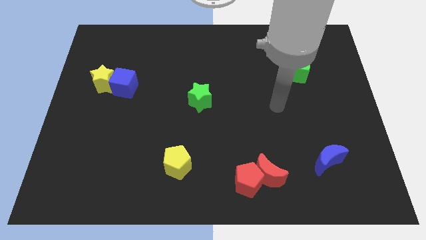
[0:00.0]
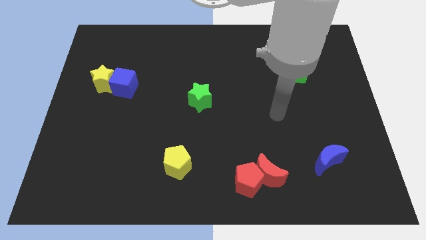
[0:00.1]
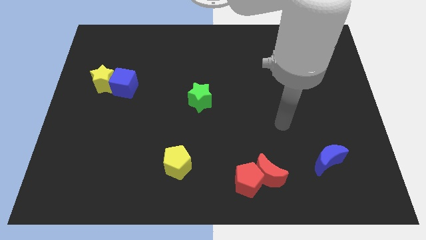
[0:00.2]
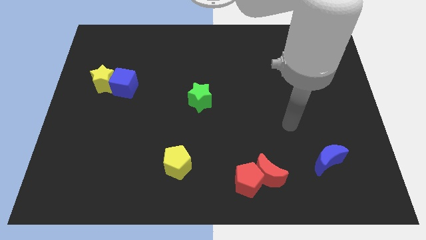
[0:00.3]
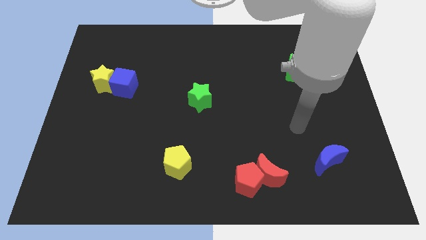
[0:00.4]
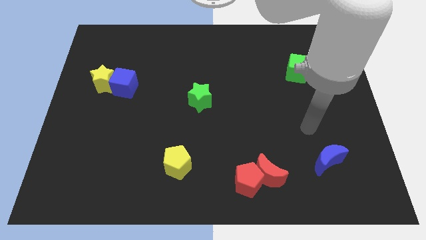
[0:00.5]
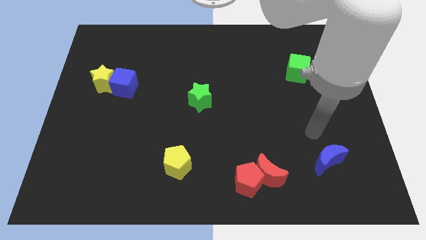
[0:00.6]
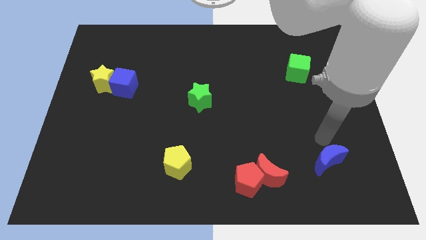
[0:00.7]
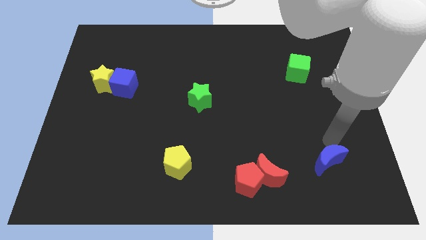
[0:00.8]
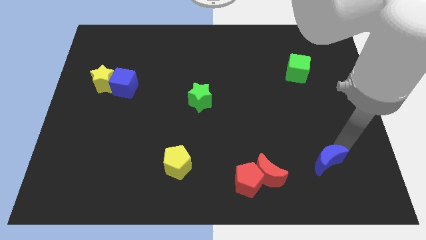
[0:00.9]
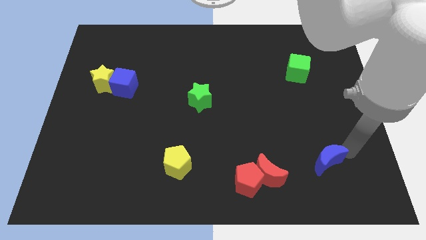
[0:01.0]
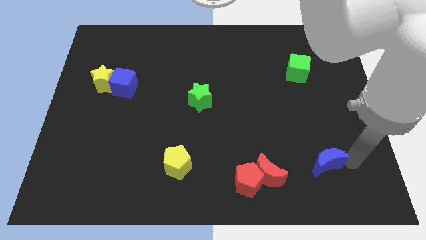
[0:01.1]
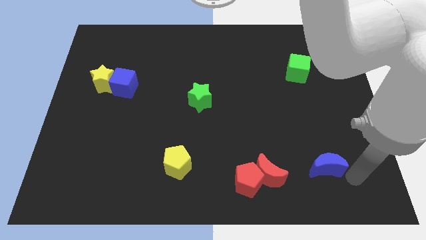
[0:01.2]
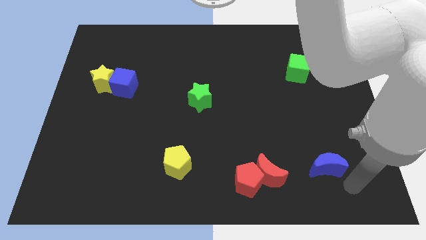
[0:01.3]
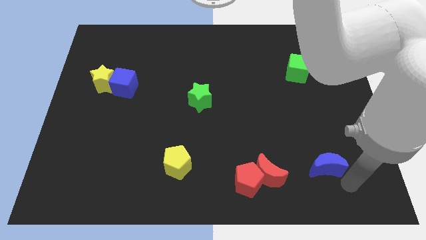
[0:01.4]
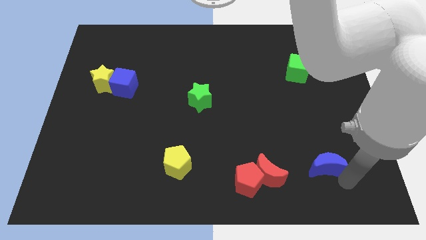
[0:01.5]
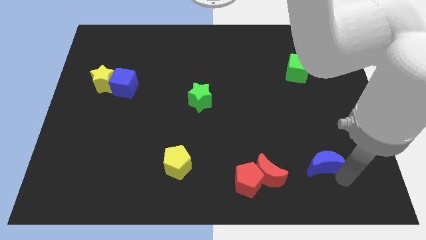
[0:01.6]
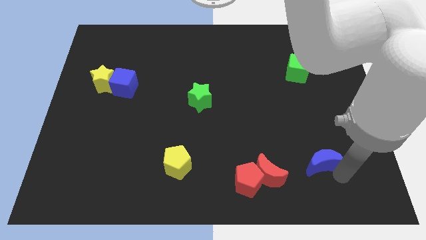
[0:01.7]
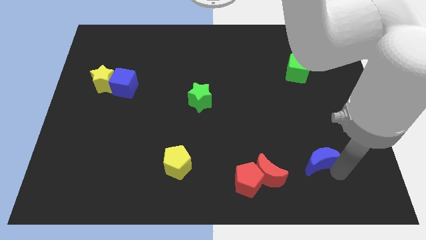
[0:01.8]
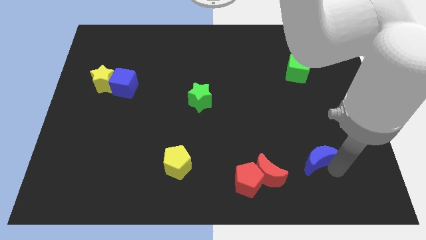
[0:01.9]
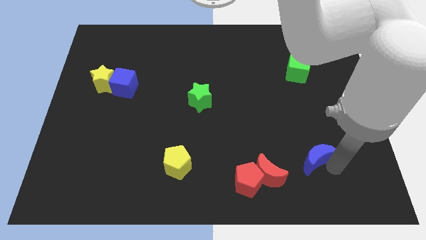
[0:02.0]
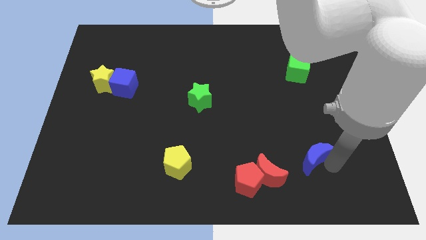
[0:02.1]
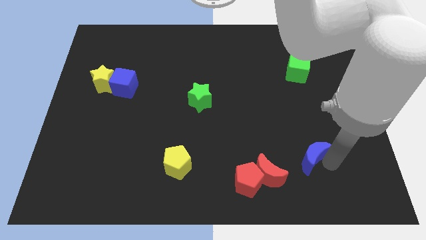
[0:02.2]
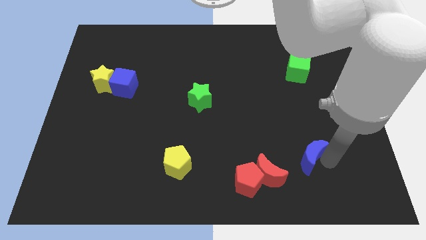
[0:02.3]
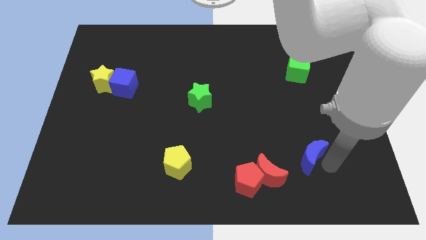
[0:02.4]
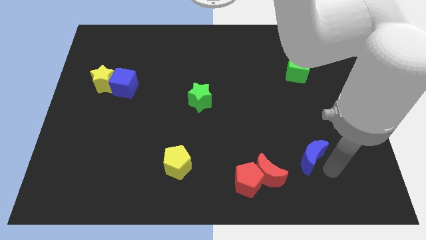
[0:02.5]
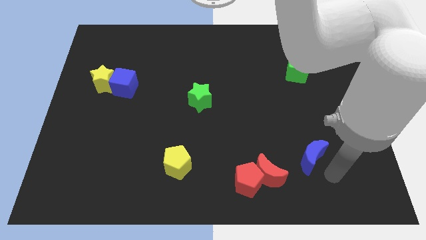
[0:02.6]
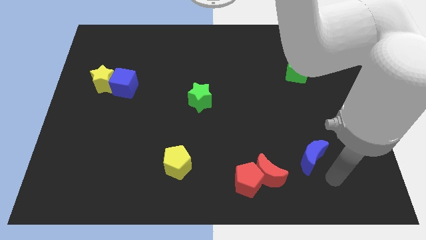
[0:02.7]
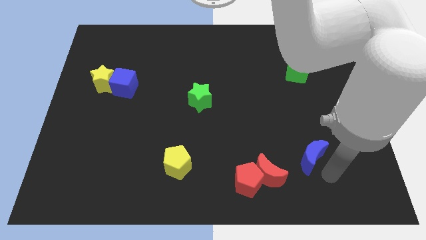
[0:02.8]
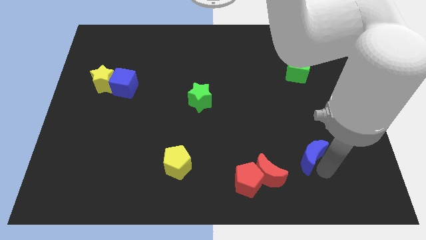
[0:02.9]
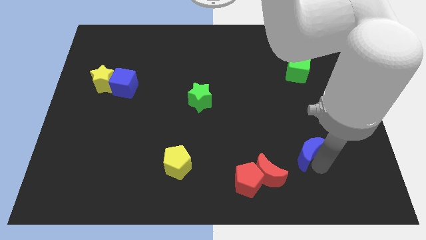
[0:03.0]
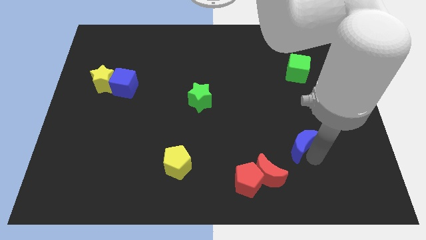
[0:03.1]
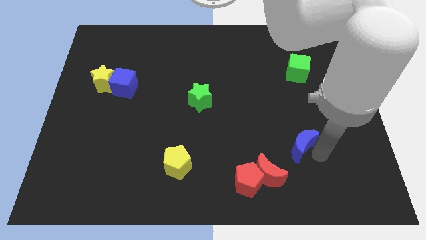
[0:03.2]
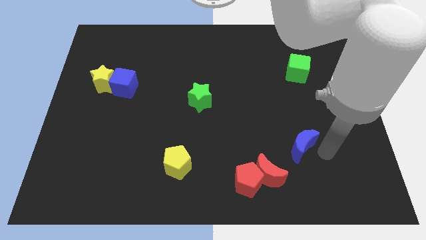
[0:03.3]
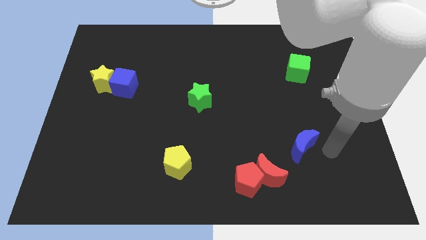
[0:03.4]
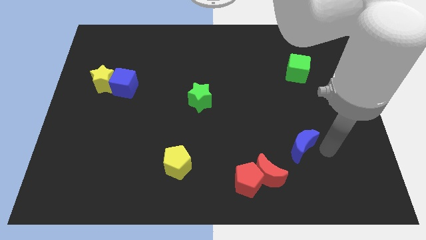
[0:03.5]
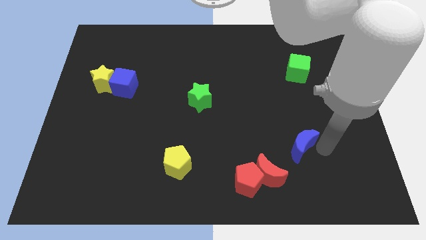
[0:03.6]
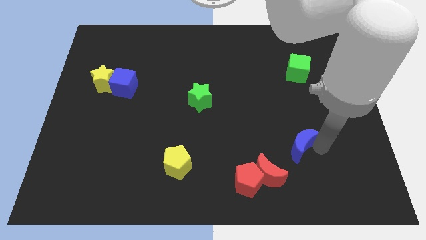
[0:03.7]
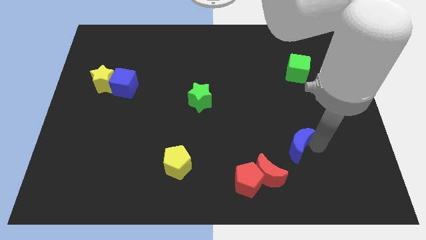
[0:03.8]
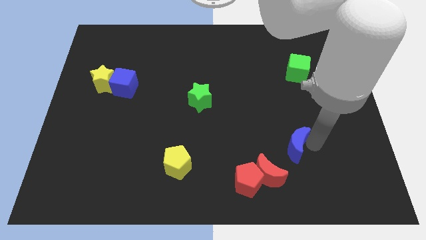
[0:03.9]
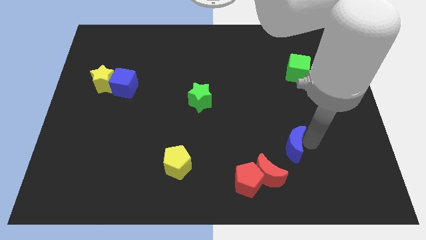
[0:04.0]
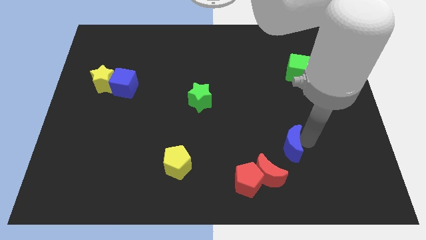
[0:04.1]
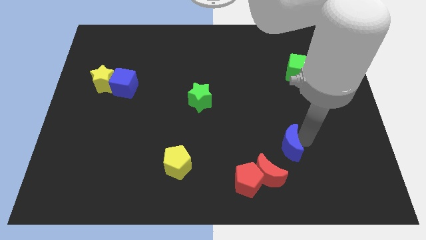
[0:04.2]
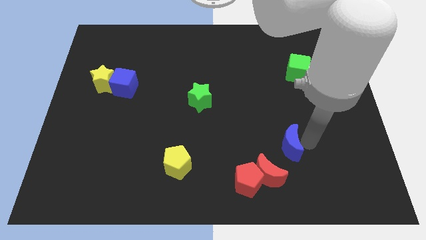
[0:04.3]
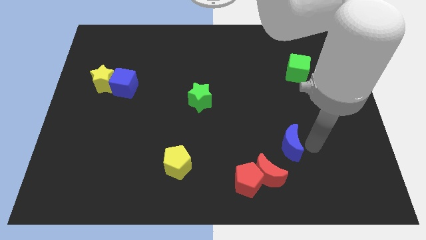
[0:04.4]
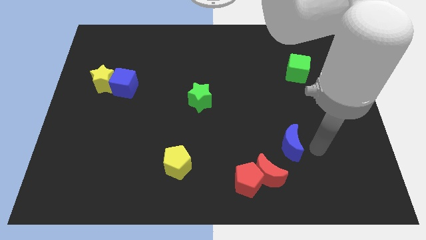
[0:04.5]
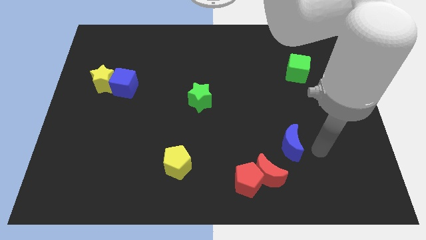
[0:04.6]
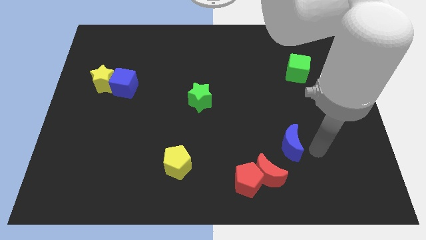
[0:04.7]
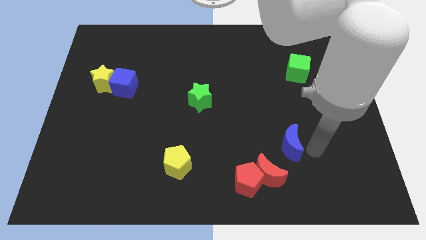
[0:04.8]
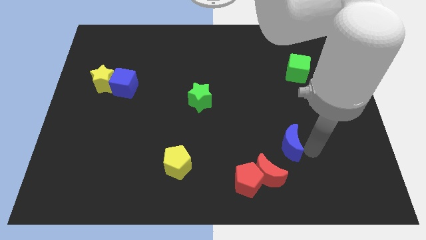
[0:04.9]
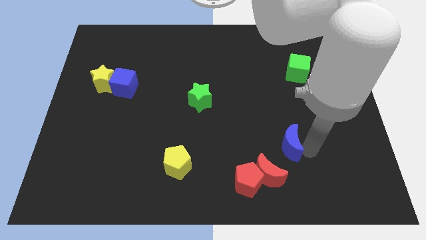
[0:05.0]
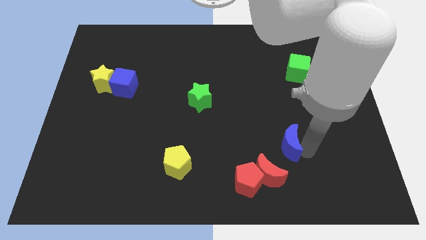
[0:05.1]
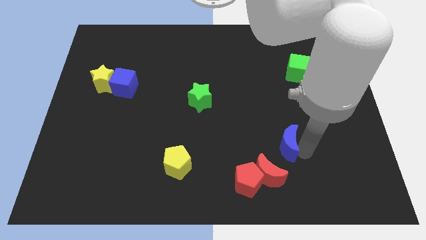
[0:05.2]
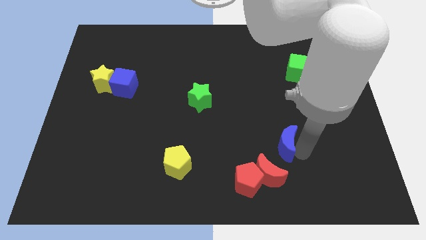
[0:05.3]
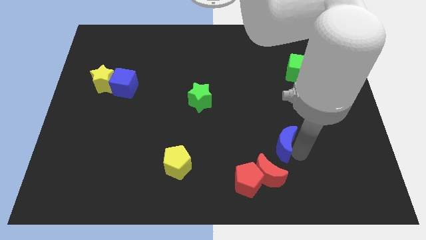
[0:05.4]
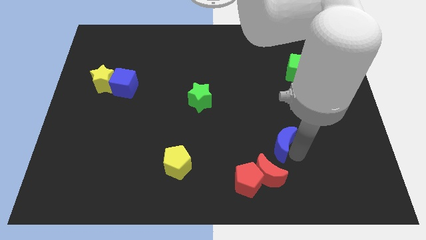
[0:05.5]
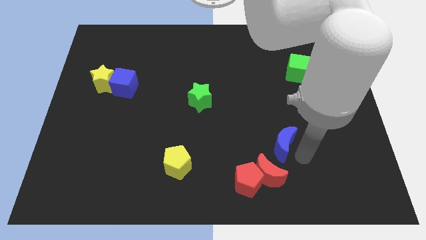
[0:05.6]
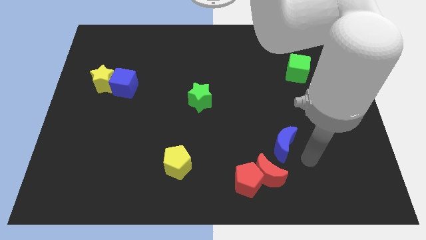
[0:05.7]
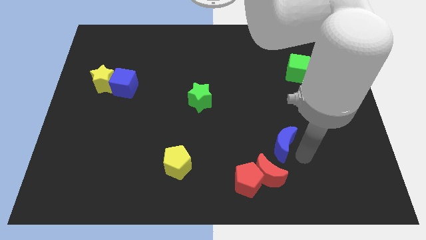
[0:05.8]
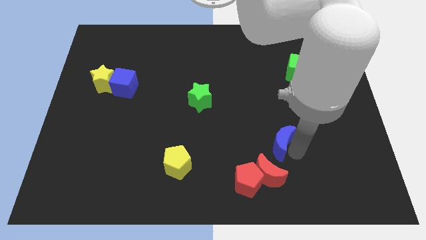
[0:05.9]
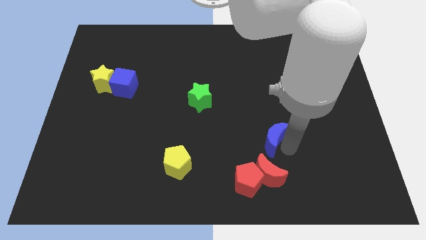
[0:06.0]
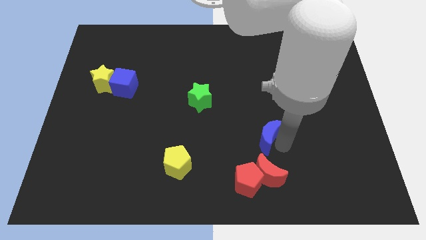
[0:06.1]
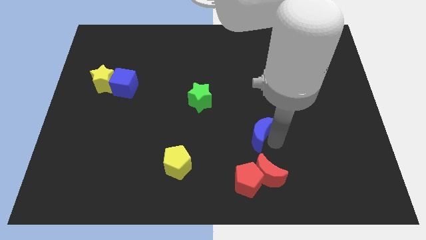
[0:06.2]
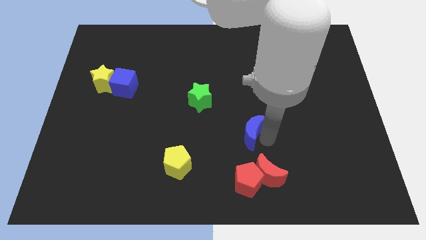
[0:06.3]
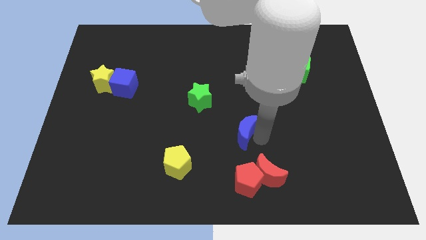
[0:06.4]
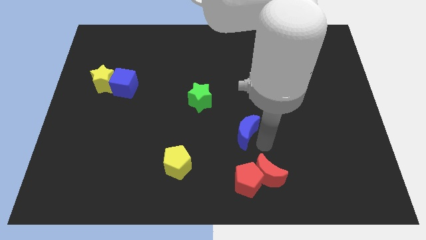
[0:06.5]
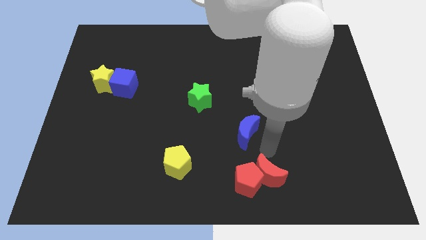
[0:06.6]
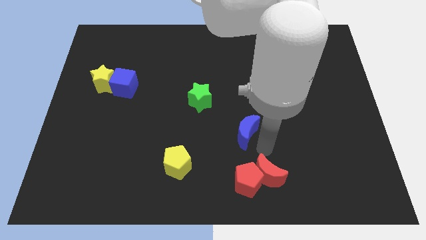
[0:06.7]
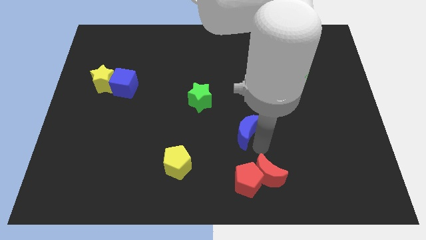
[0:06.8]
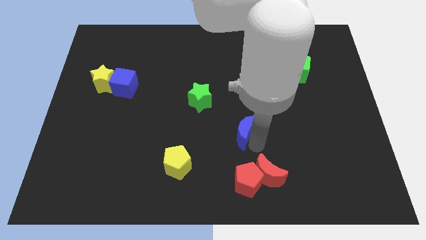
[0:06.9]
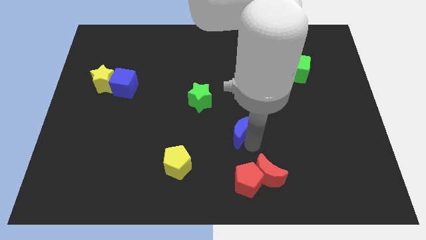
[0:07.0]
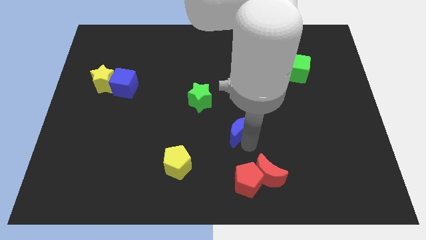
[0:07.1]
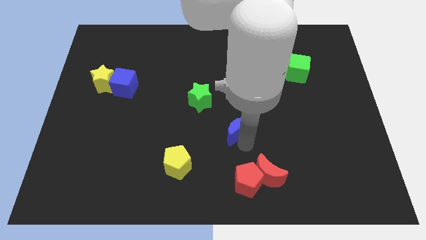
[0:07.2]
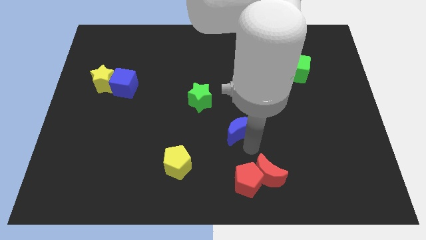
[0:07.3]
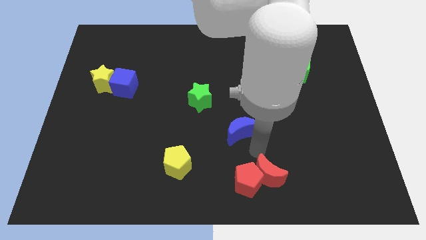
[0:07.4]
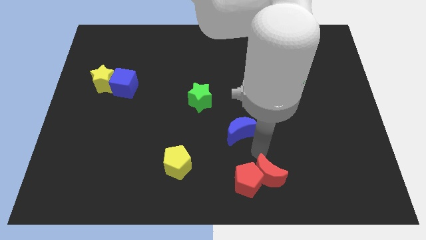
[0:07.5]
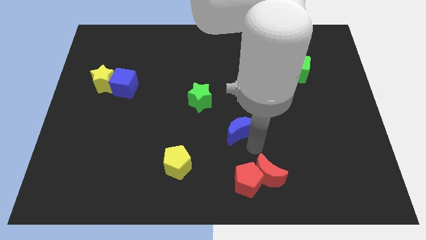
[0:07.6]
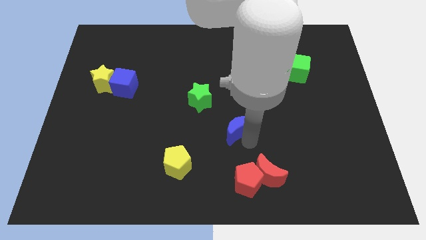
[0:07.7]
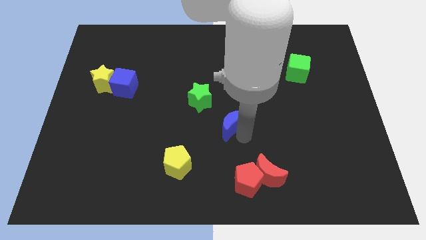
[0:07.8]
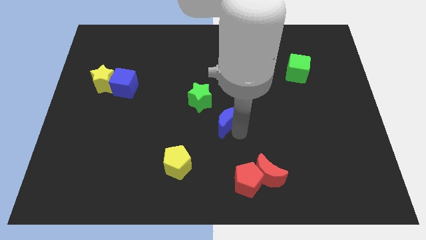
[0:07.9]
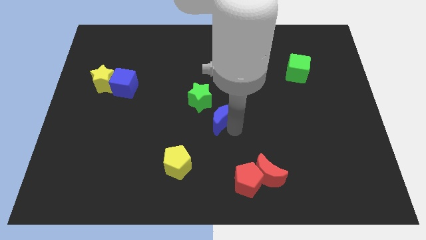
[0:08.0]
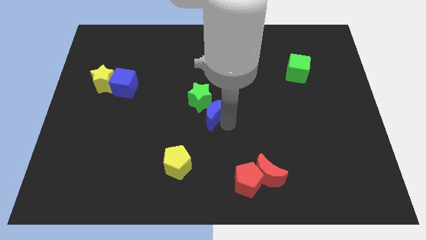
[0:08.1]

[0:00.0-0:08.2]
move the blue moon close to the green star
